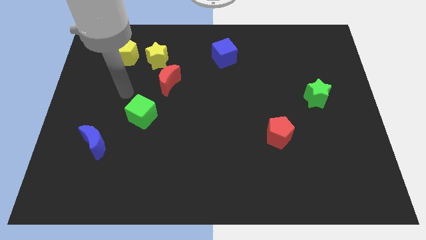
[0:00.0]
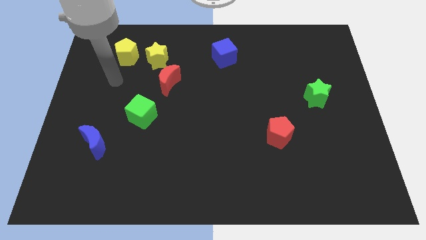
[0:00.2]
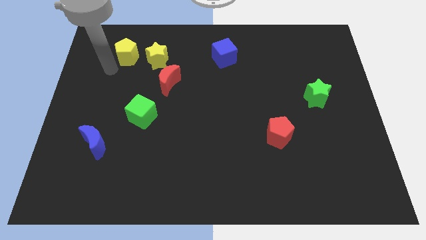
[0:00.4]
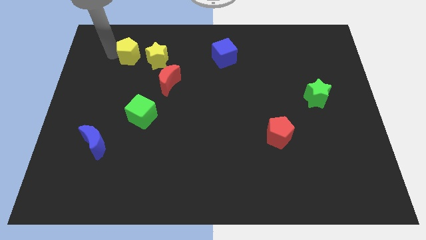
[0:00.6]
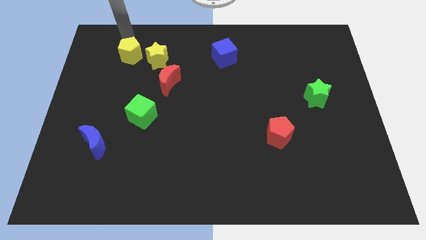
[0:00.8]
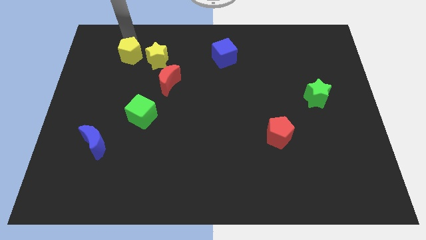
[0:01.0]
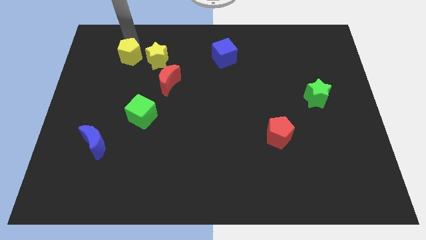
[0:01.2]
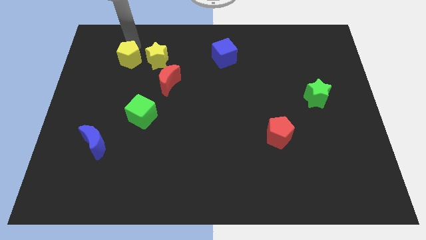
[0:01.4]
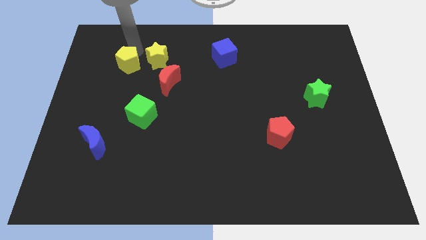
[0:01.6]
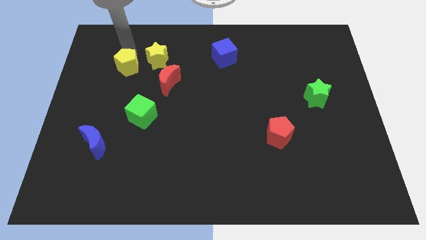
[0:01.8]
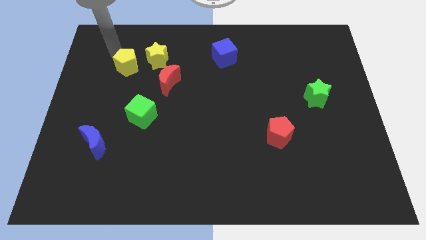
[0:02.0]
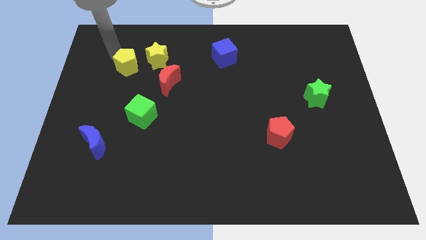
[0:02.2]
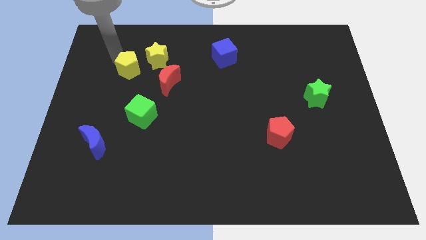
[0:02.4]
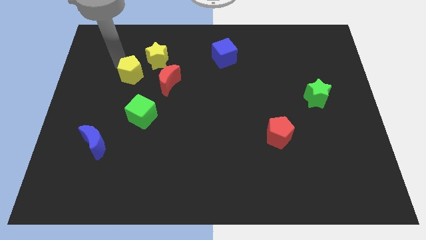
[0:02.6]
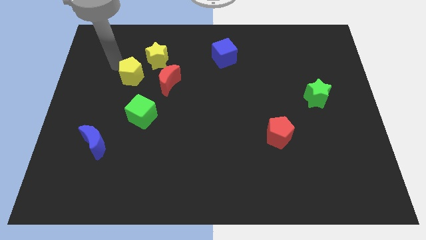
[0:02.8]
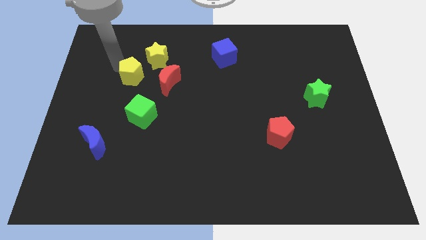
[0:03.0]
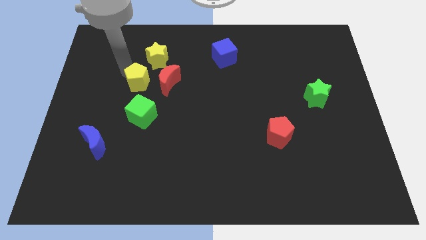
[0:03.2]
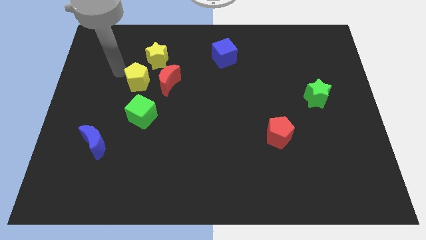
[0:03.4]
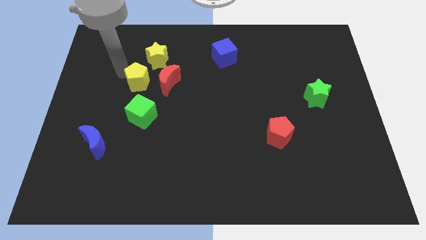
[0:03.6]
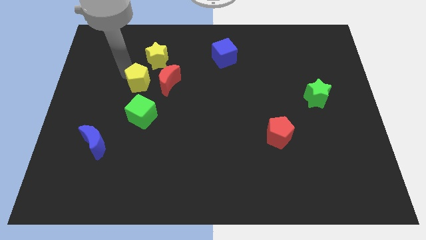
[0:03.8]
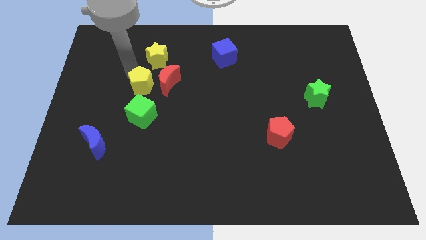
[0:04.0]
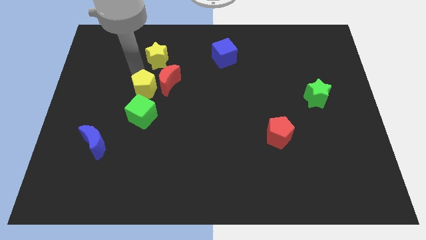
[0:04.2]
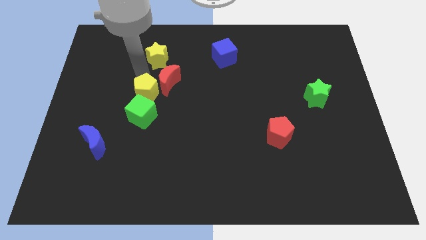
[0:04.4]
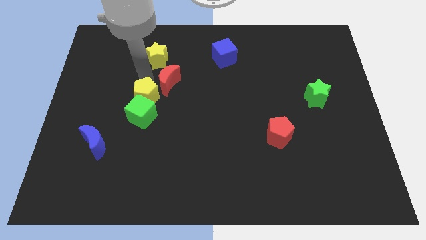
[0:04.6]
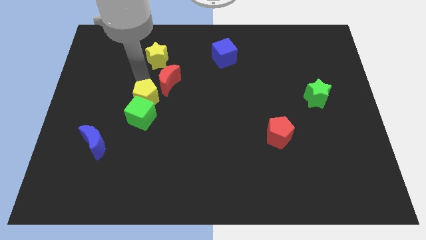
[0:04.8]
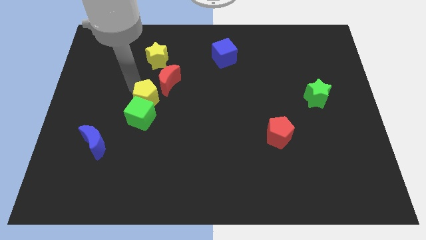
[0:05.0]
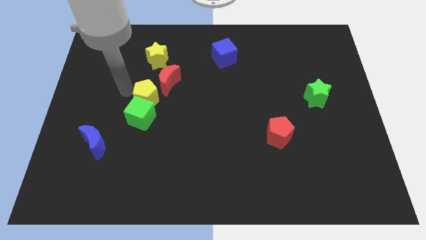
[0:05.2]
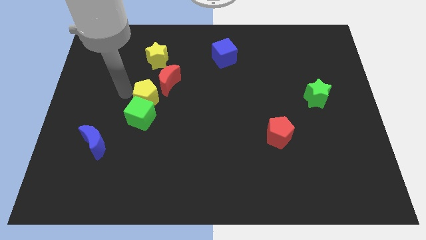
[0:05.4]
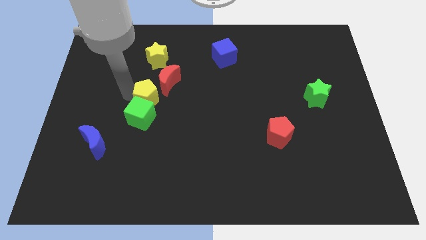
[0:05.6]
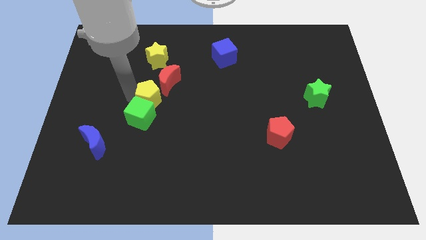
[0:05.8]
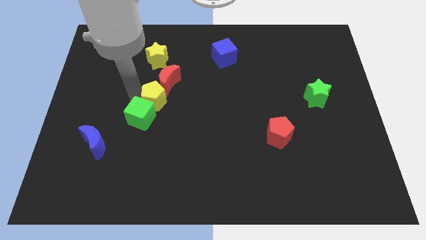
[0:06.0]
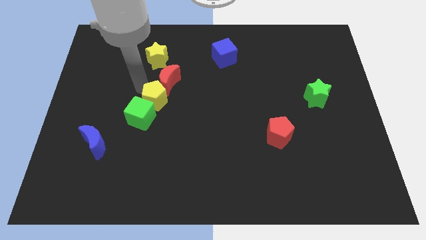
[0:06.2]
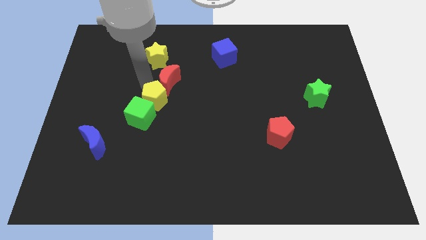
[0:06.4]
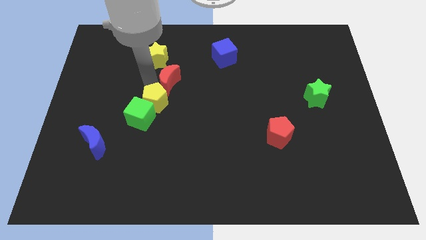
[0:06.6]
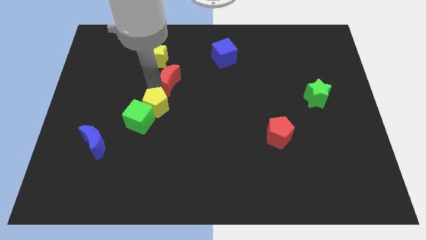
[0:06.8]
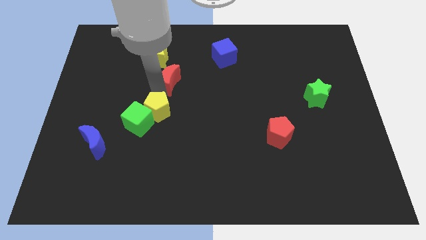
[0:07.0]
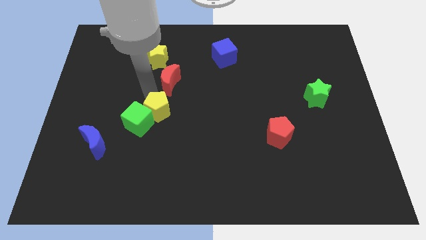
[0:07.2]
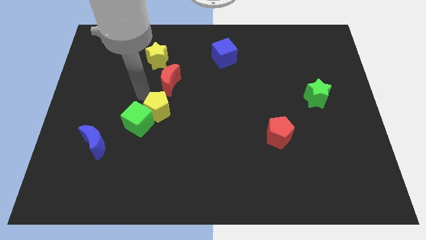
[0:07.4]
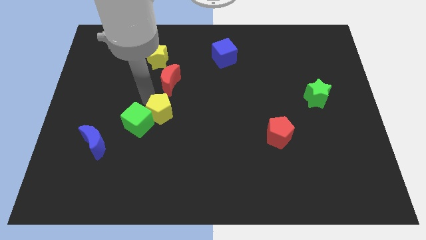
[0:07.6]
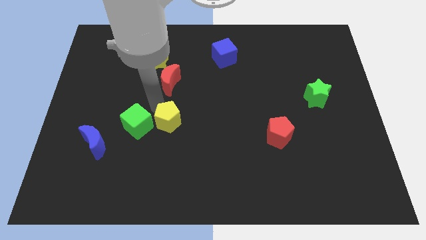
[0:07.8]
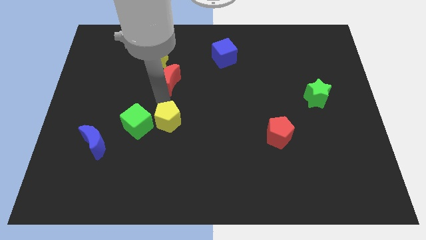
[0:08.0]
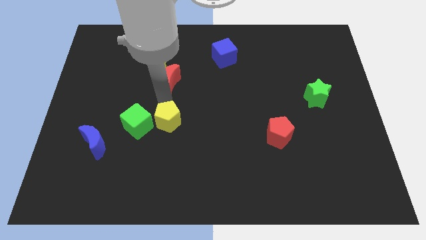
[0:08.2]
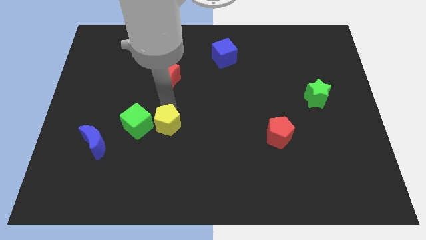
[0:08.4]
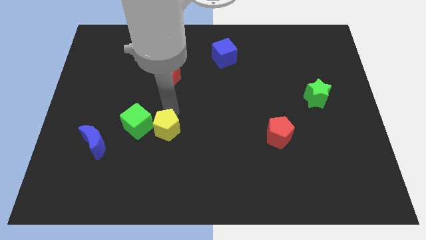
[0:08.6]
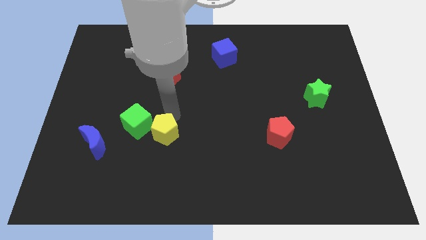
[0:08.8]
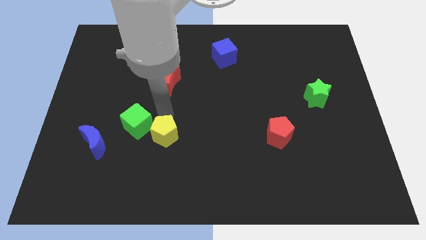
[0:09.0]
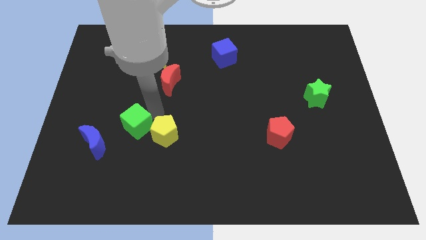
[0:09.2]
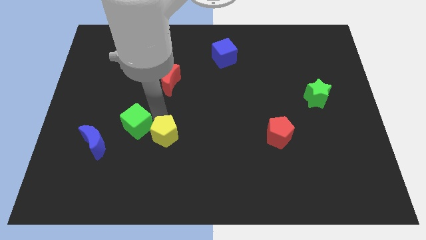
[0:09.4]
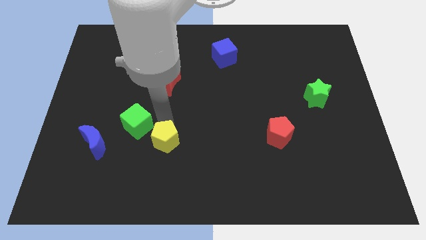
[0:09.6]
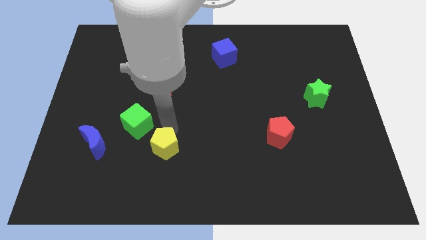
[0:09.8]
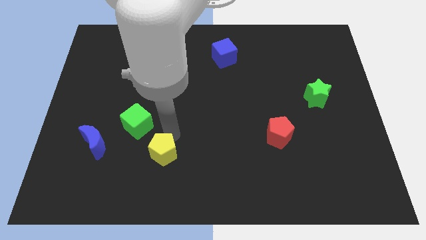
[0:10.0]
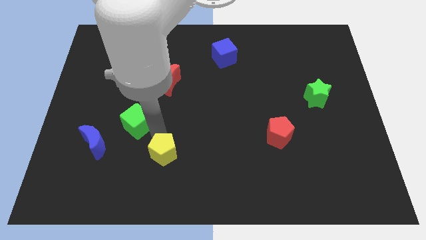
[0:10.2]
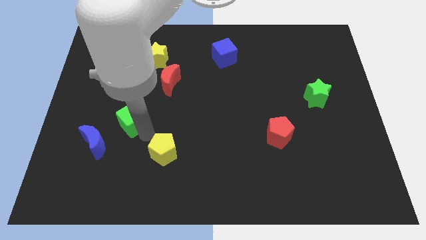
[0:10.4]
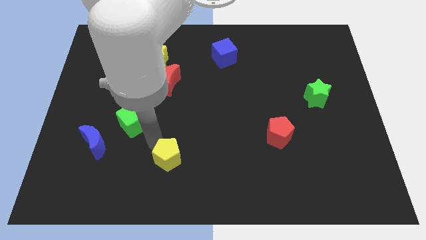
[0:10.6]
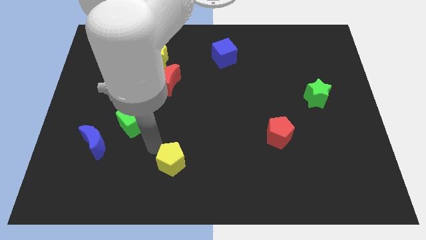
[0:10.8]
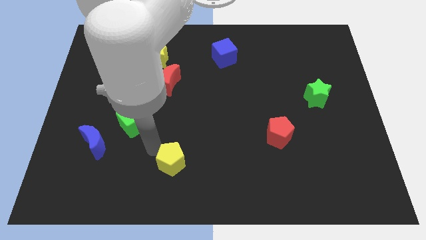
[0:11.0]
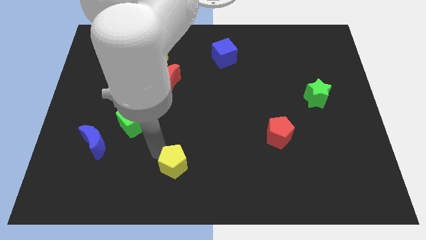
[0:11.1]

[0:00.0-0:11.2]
move the yellow pentagon to the bottom side
